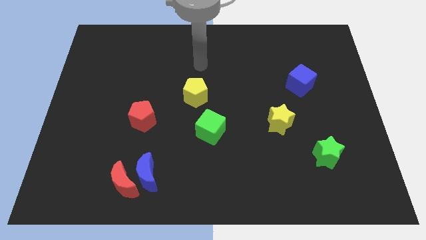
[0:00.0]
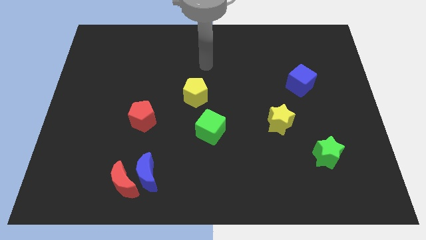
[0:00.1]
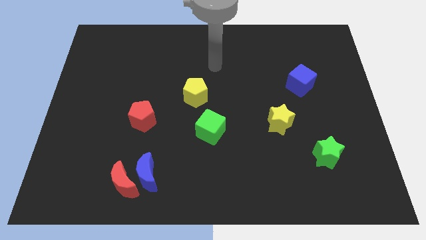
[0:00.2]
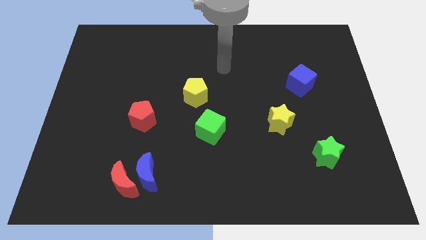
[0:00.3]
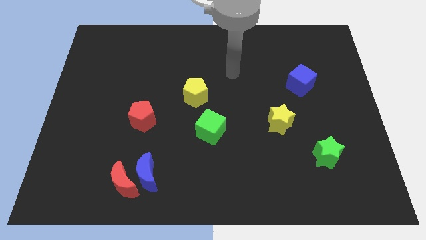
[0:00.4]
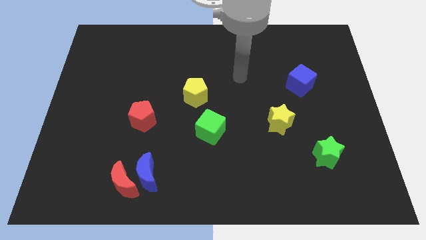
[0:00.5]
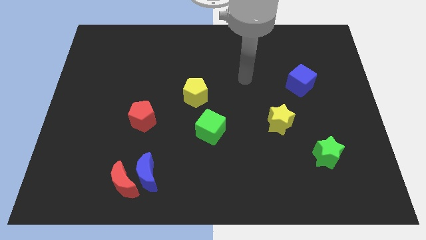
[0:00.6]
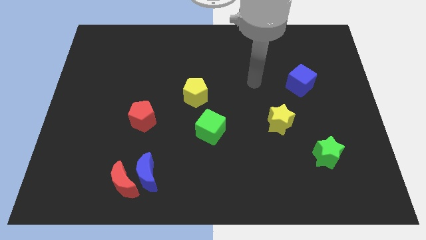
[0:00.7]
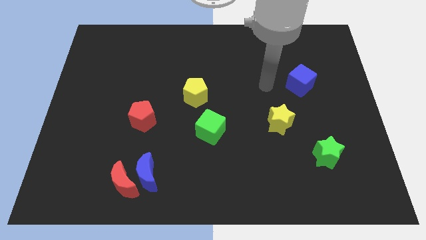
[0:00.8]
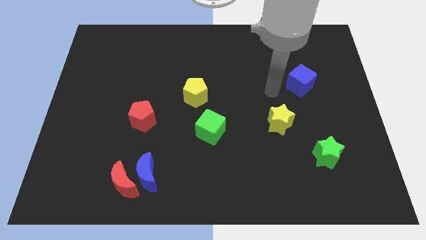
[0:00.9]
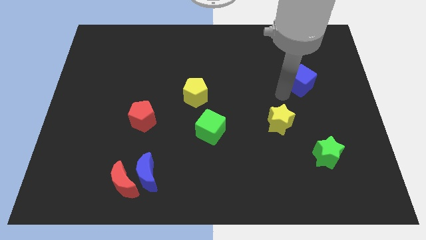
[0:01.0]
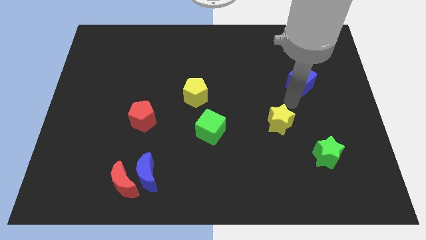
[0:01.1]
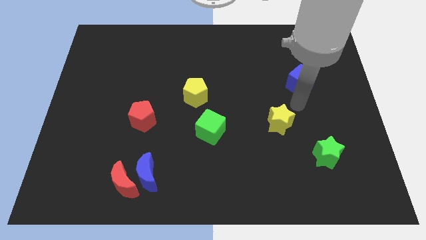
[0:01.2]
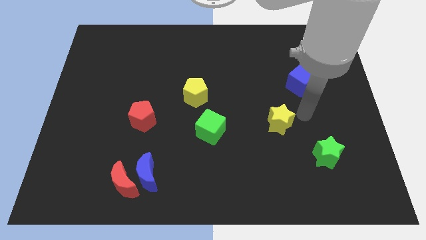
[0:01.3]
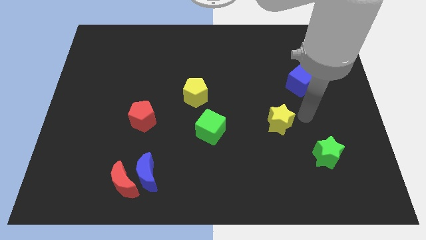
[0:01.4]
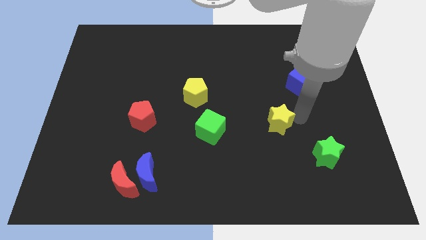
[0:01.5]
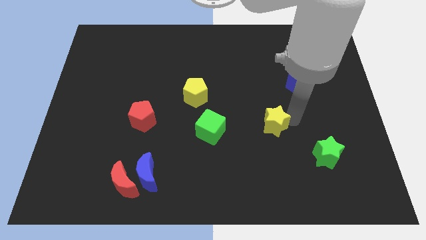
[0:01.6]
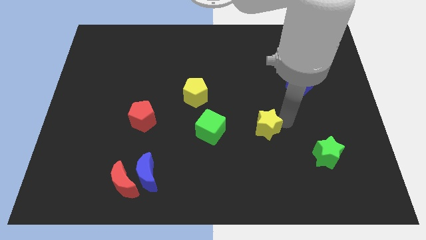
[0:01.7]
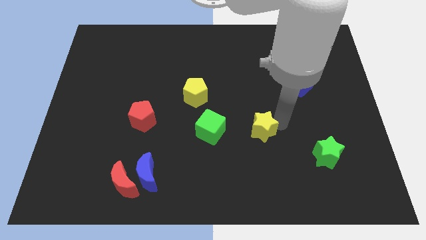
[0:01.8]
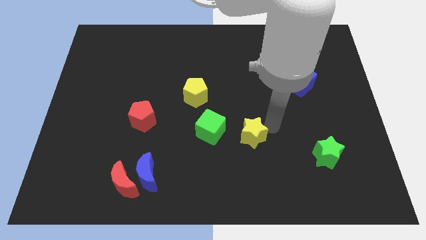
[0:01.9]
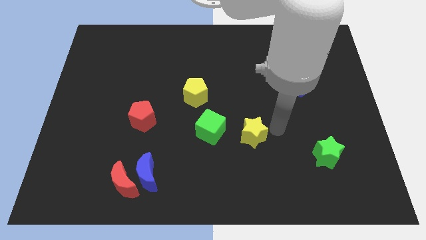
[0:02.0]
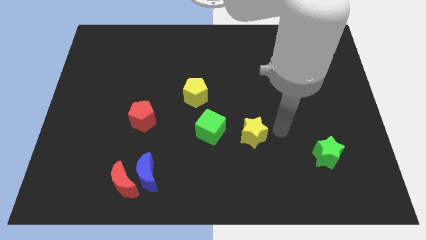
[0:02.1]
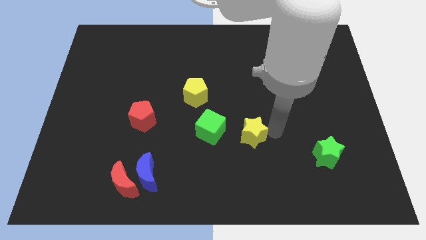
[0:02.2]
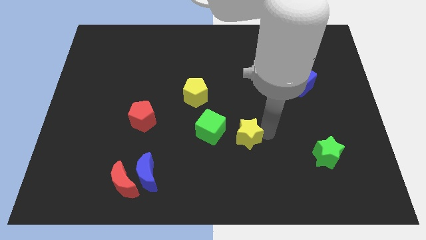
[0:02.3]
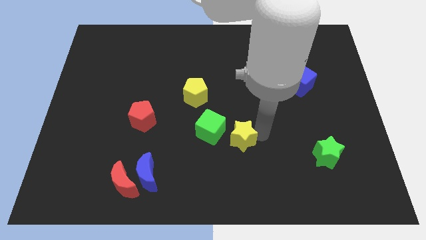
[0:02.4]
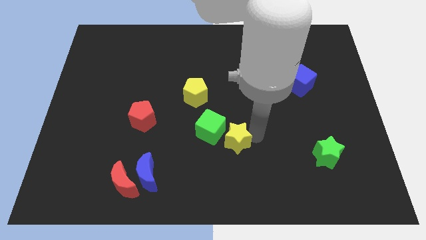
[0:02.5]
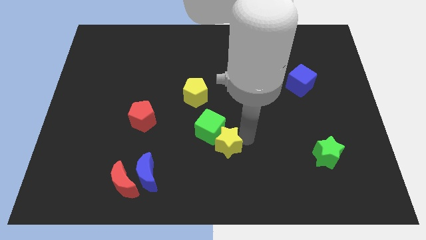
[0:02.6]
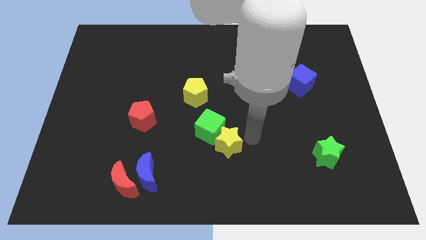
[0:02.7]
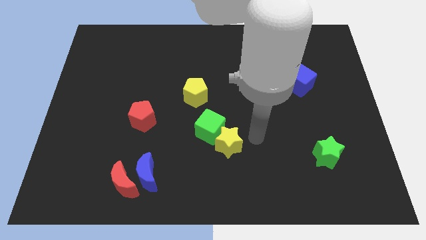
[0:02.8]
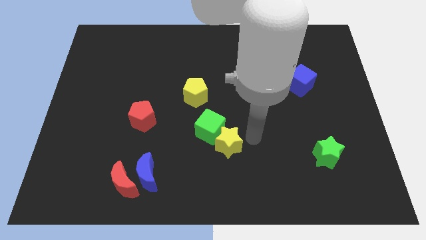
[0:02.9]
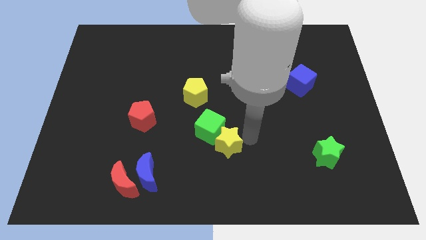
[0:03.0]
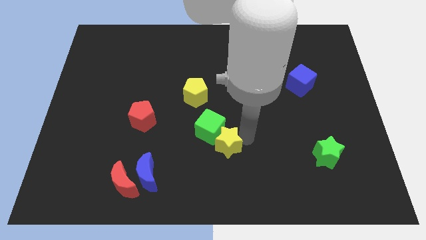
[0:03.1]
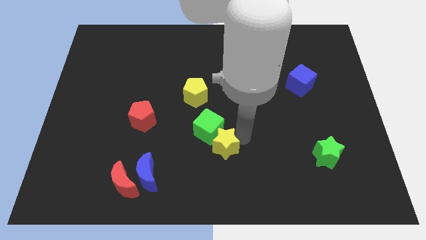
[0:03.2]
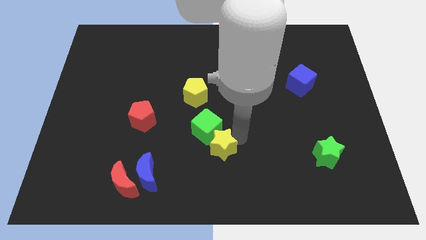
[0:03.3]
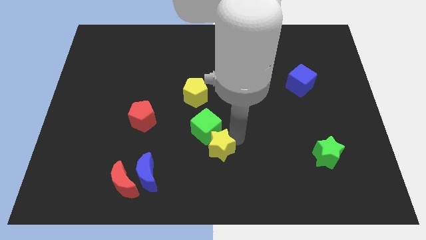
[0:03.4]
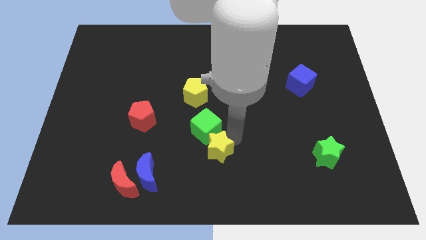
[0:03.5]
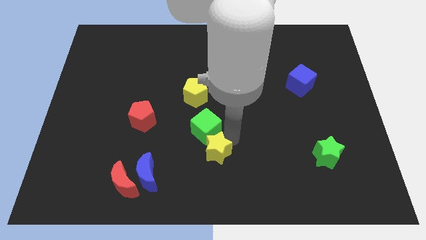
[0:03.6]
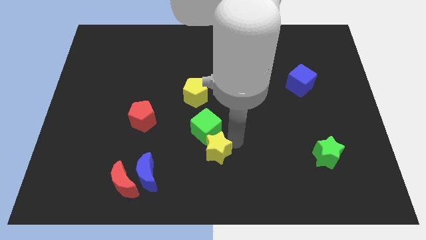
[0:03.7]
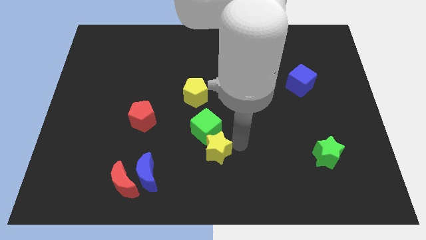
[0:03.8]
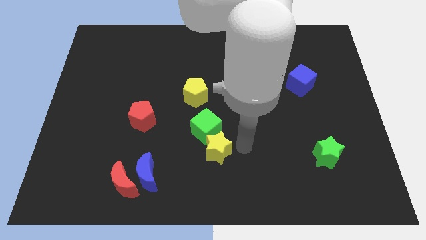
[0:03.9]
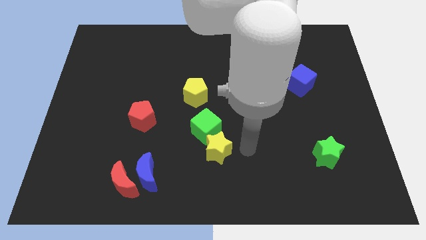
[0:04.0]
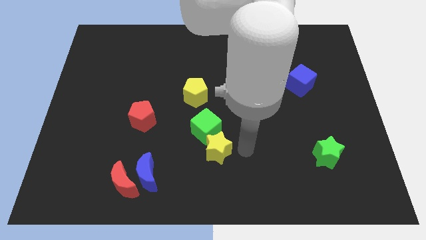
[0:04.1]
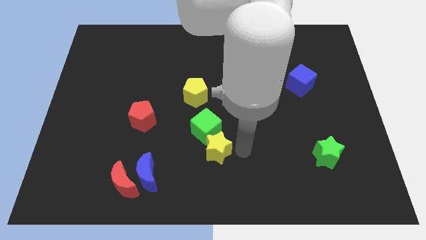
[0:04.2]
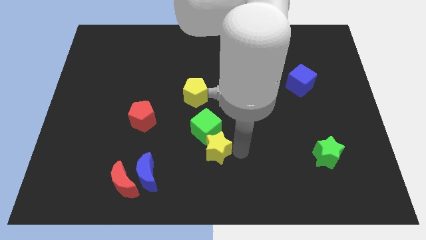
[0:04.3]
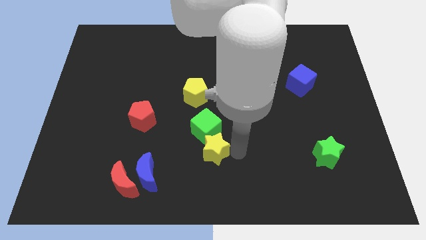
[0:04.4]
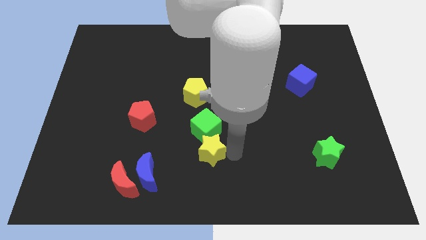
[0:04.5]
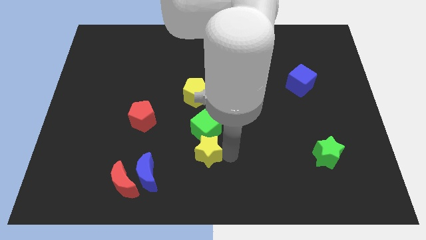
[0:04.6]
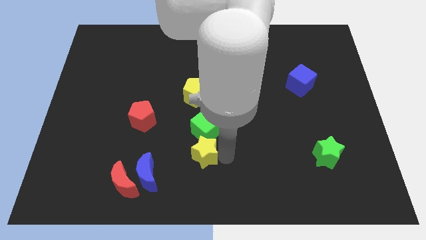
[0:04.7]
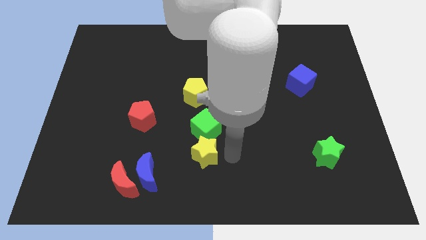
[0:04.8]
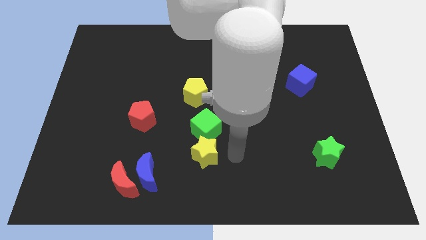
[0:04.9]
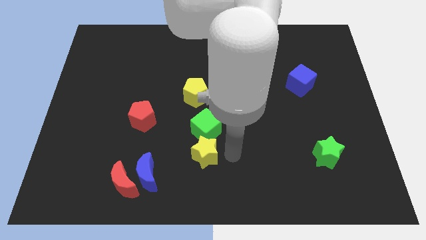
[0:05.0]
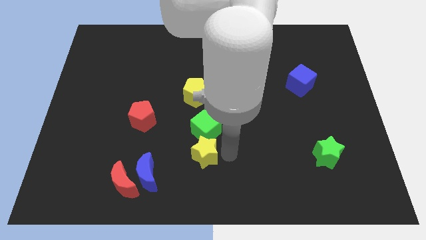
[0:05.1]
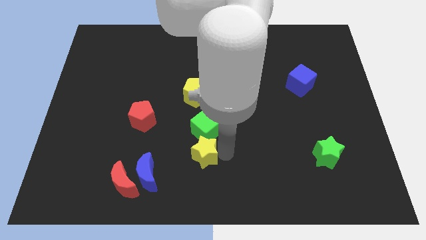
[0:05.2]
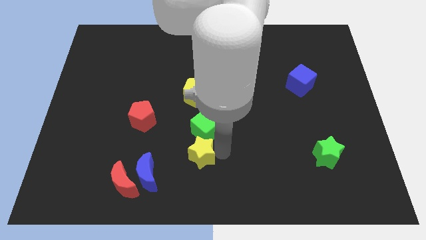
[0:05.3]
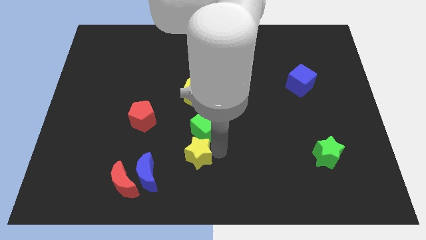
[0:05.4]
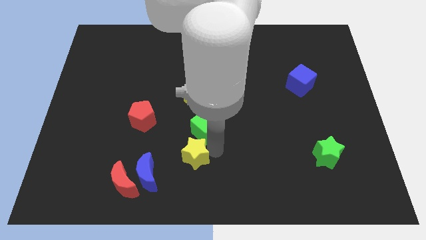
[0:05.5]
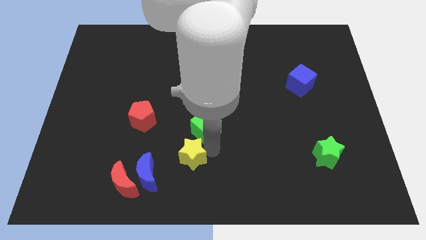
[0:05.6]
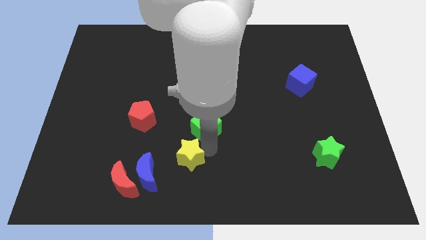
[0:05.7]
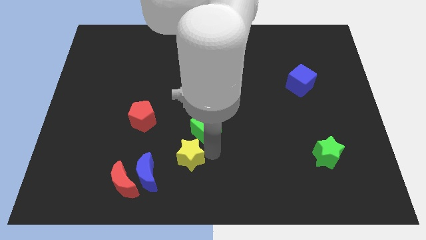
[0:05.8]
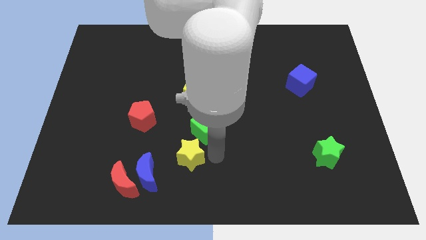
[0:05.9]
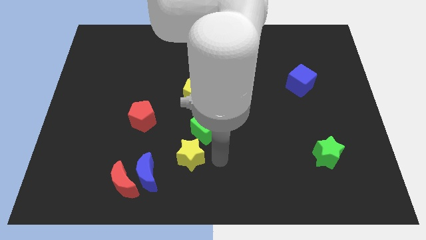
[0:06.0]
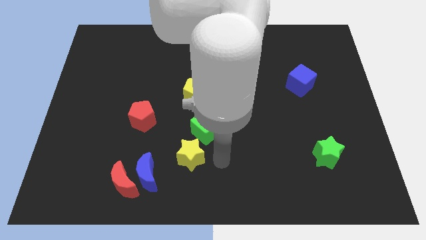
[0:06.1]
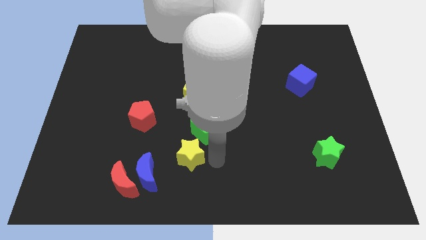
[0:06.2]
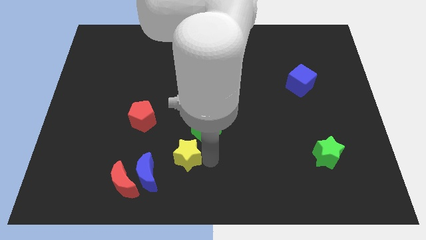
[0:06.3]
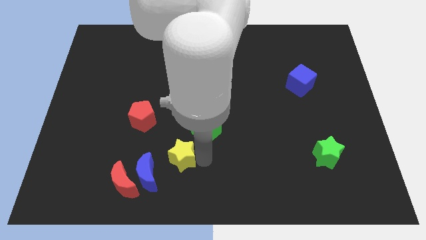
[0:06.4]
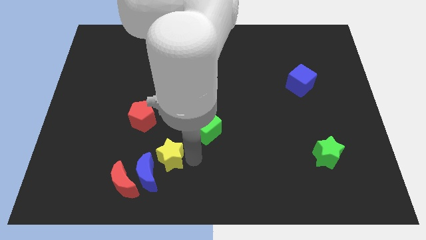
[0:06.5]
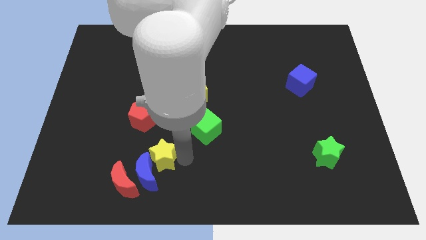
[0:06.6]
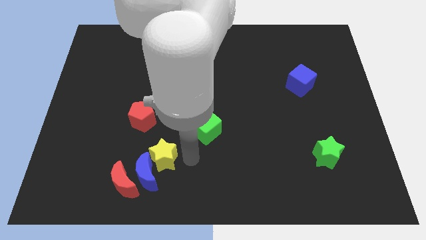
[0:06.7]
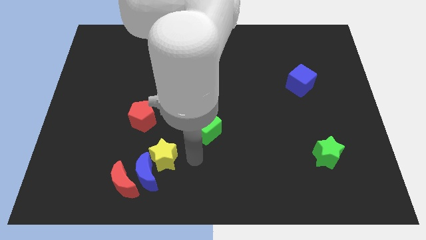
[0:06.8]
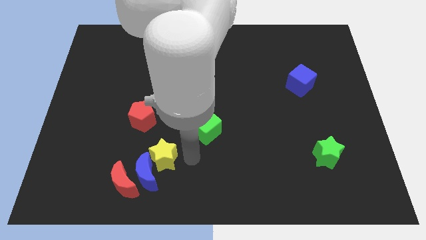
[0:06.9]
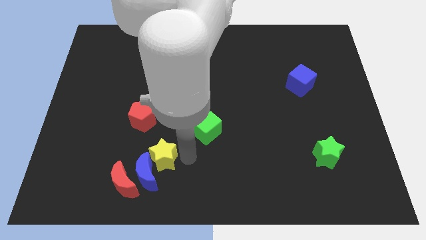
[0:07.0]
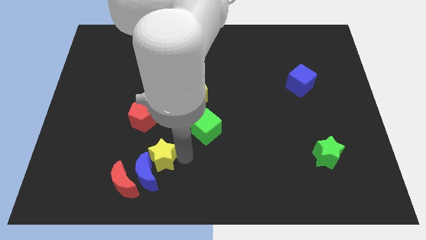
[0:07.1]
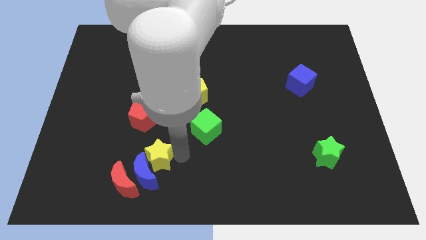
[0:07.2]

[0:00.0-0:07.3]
slide the yellow star to the bottom of the red pentagon
